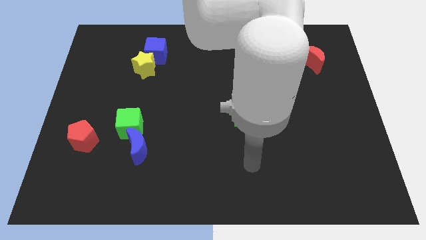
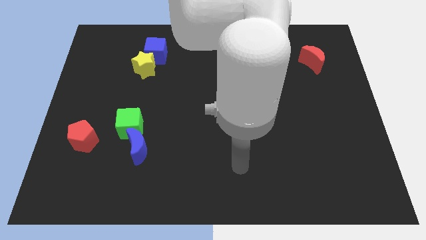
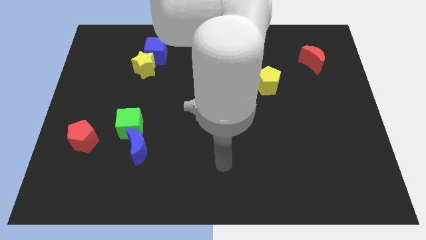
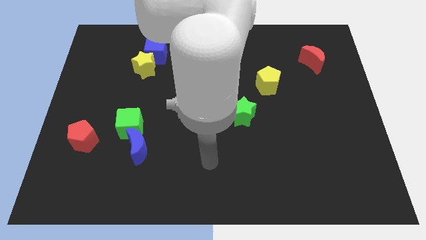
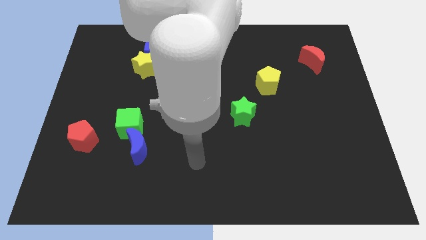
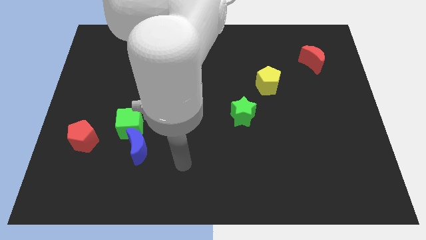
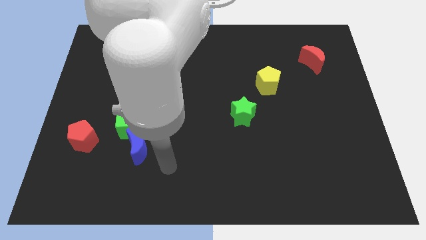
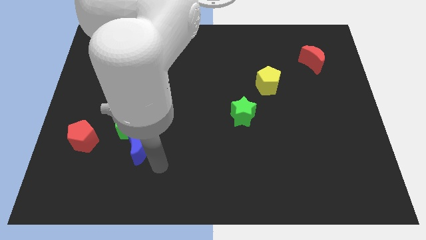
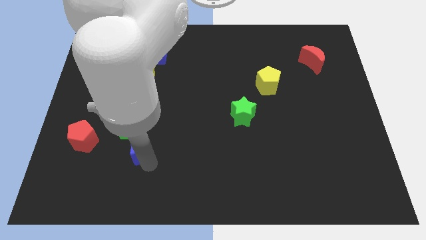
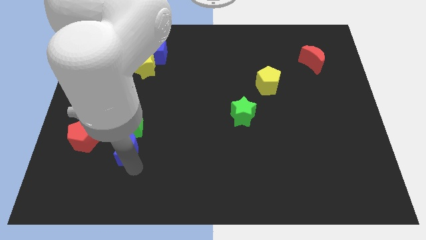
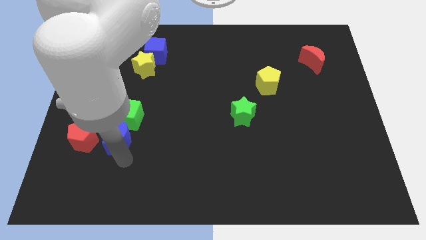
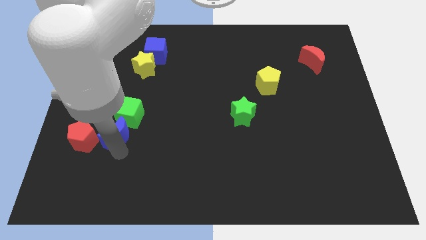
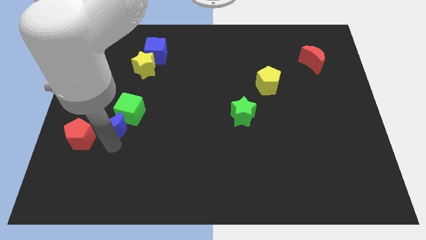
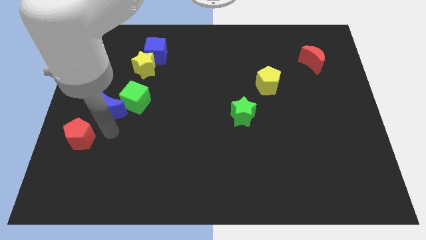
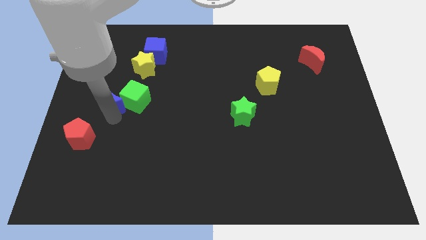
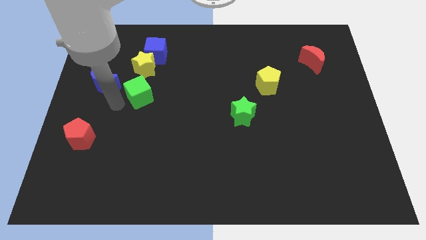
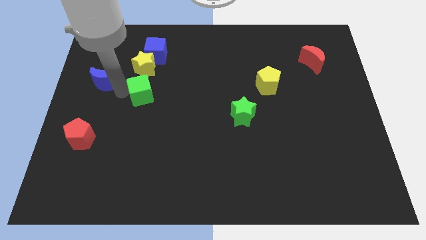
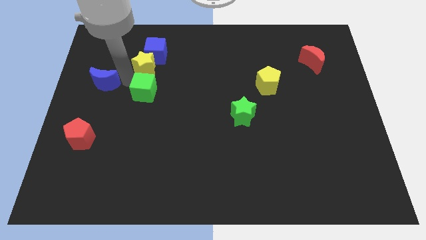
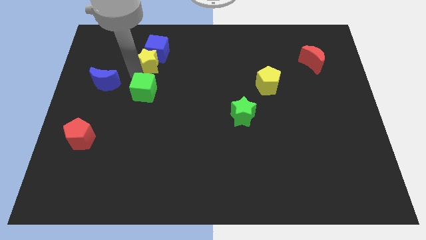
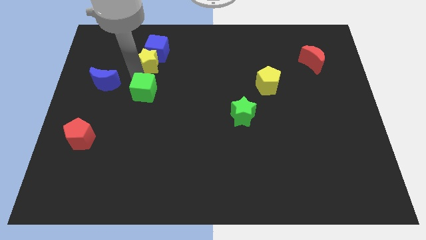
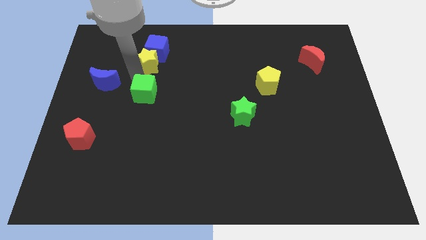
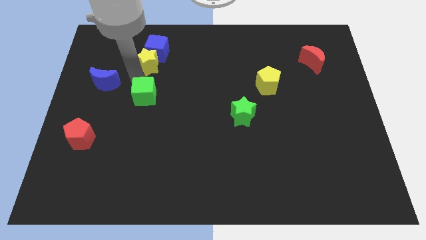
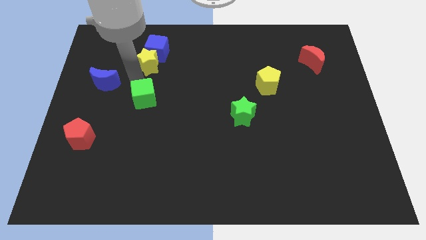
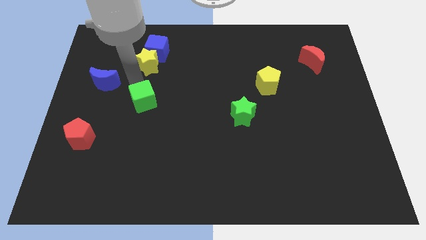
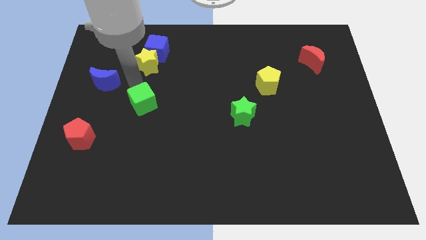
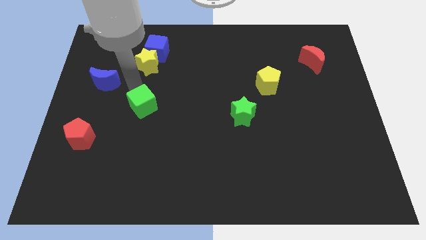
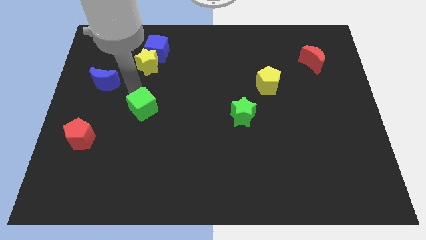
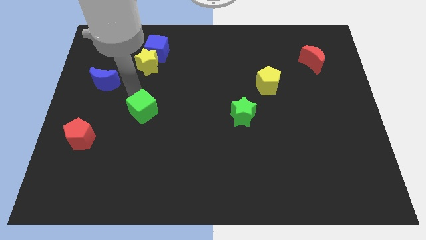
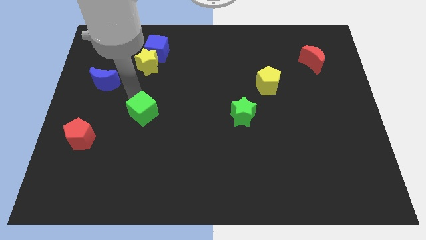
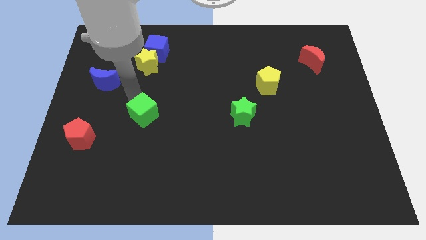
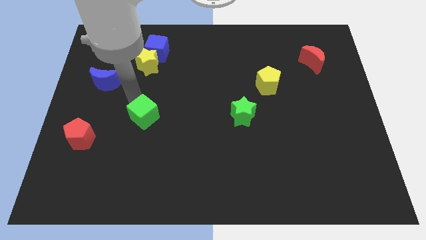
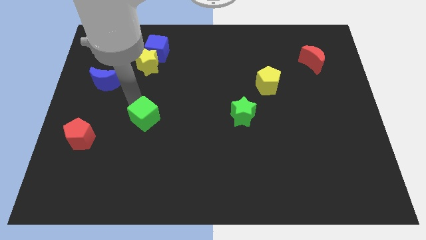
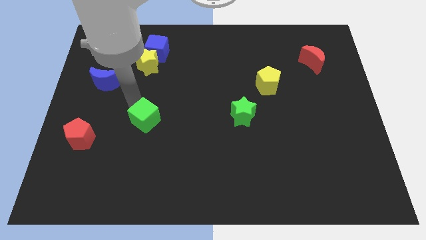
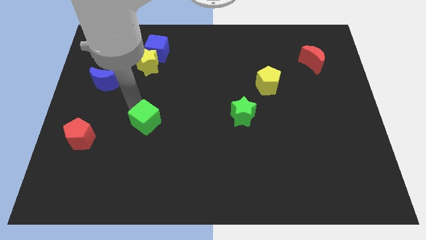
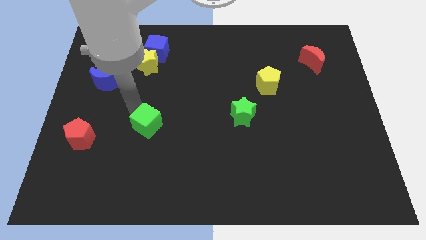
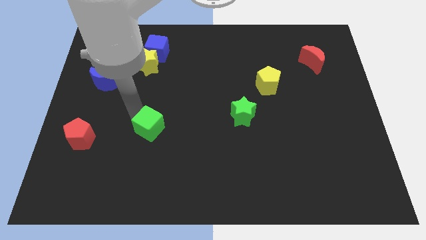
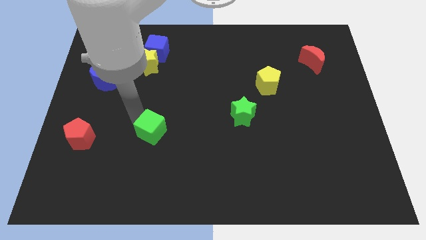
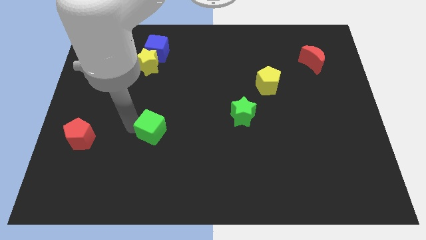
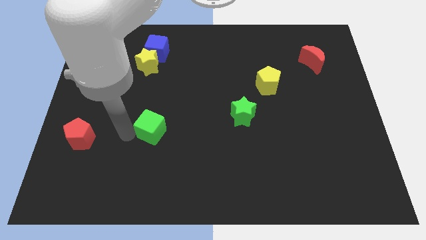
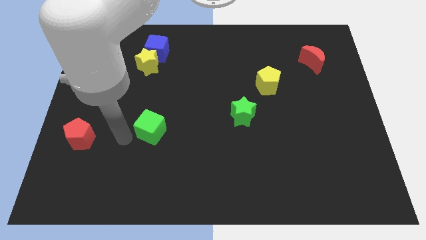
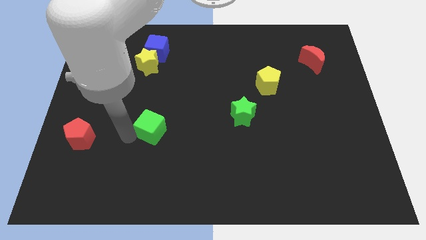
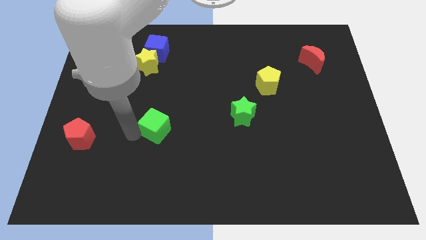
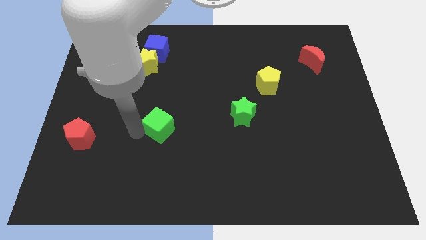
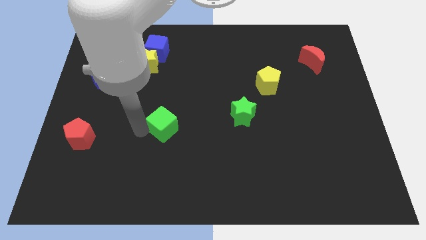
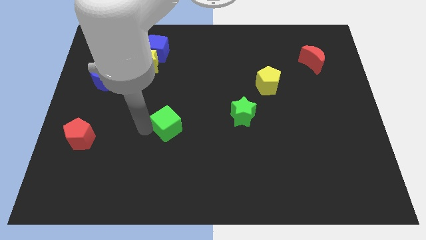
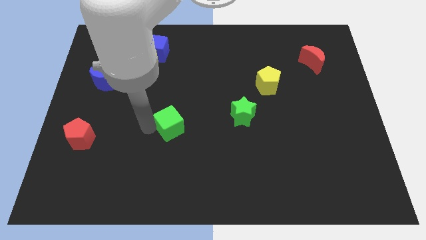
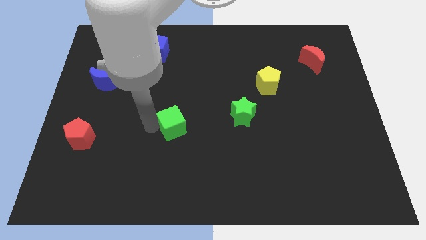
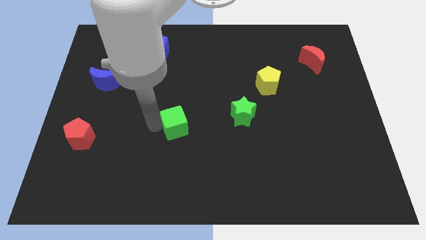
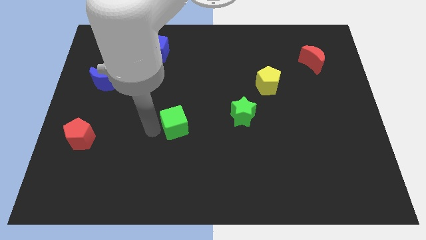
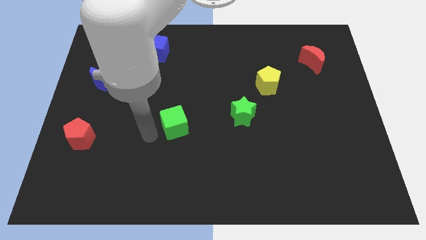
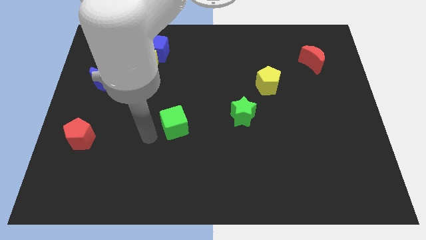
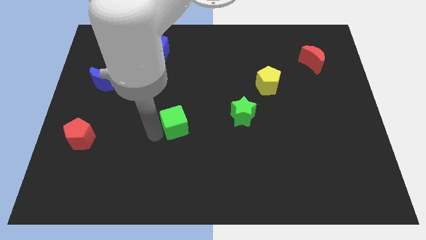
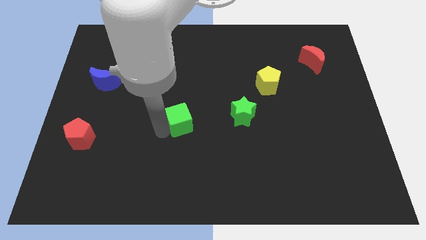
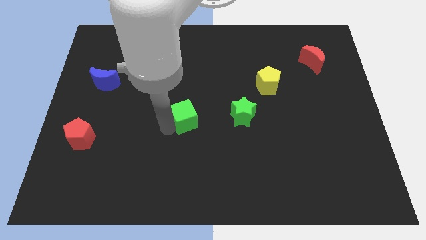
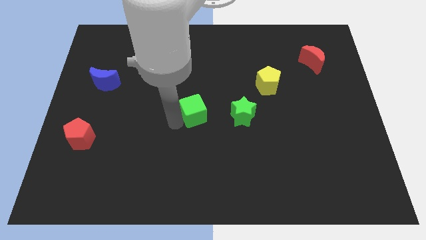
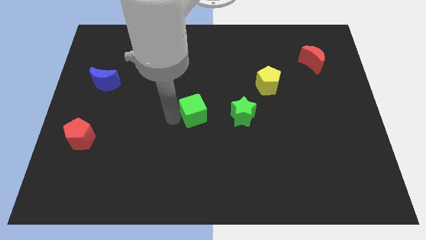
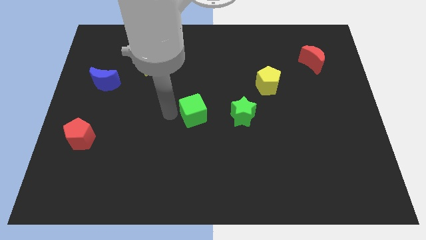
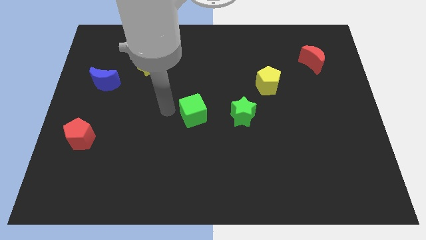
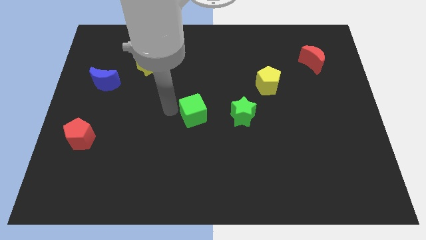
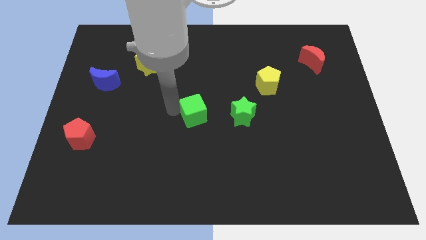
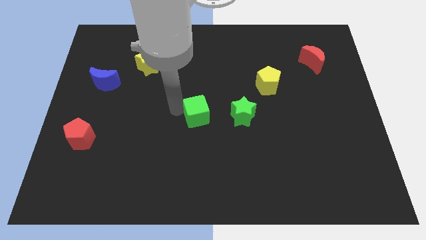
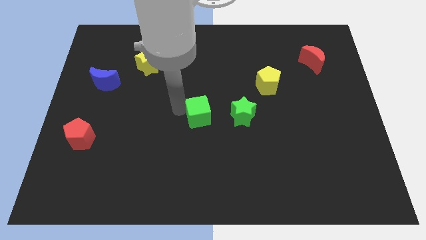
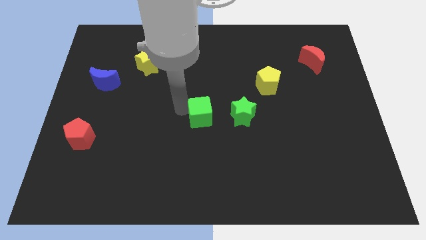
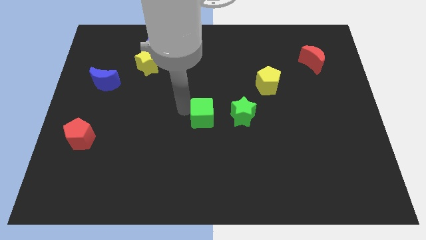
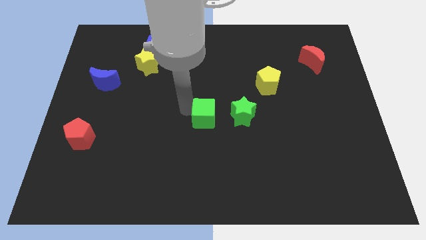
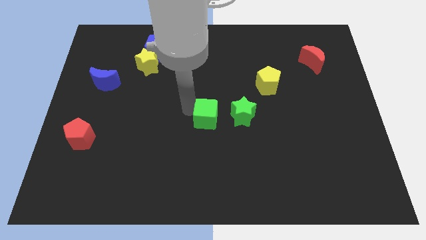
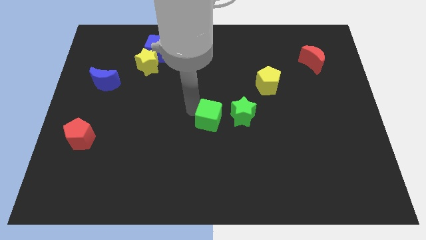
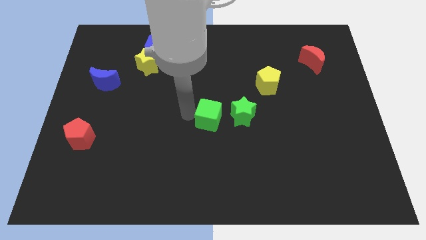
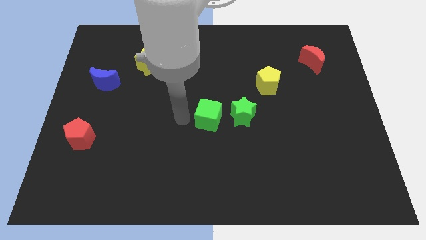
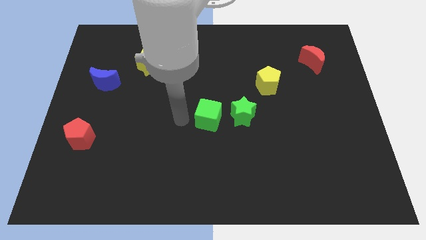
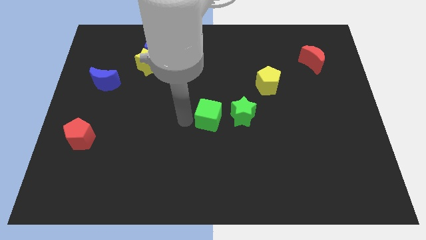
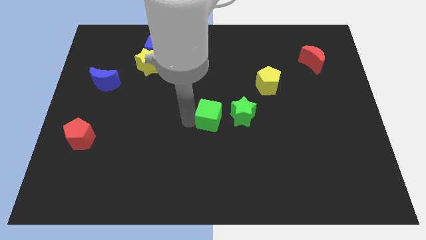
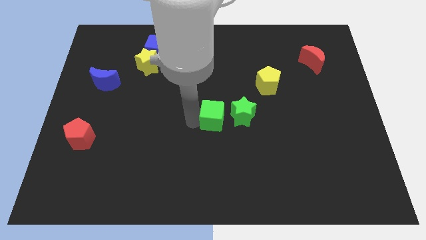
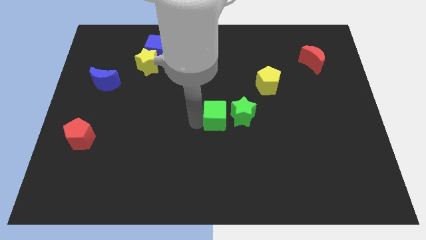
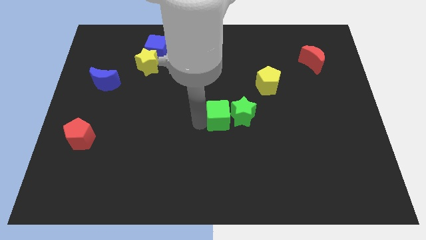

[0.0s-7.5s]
push the green cube towards the green star

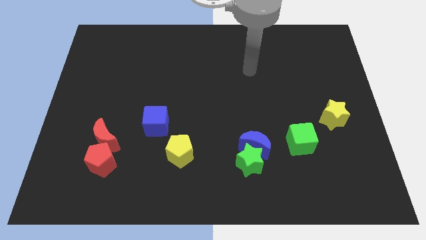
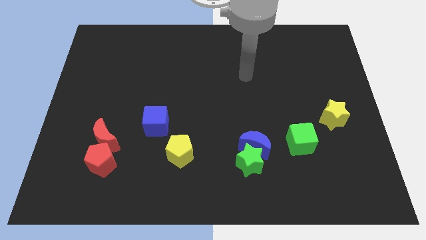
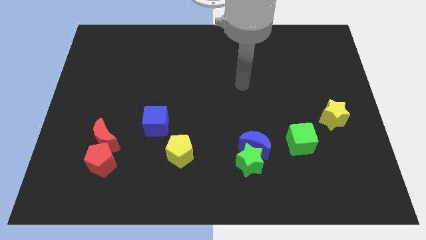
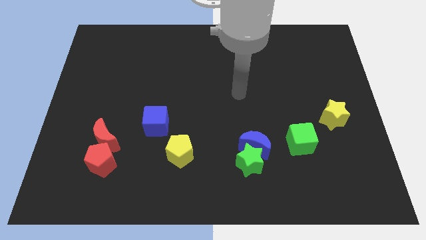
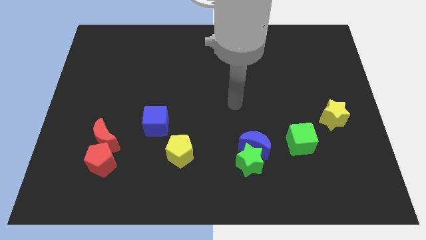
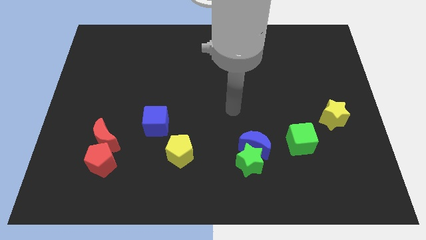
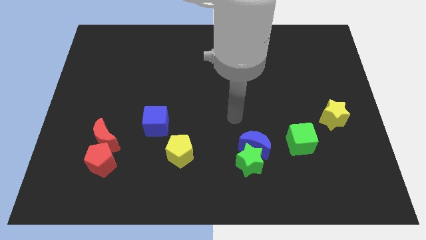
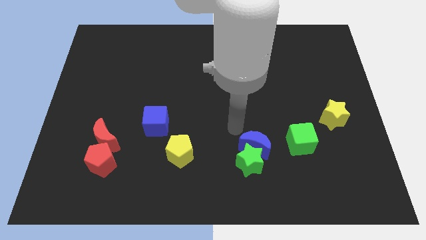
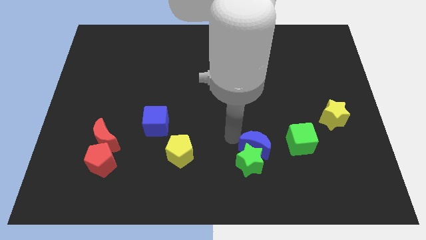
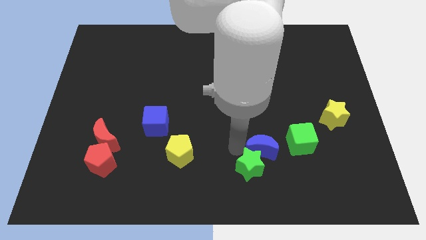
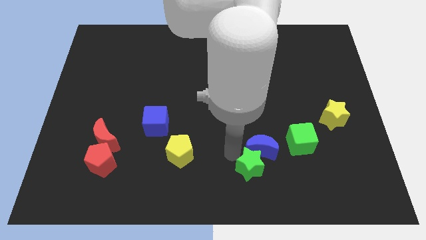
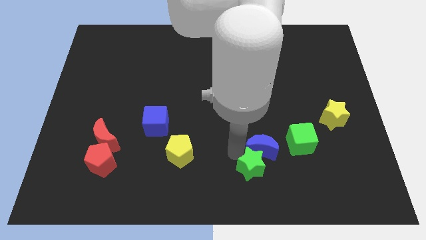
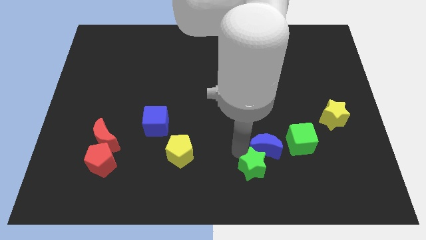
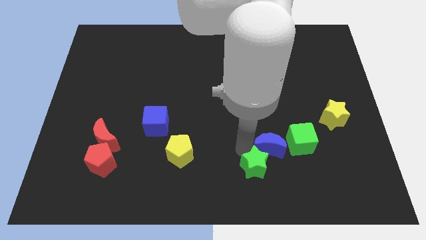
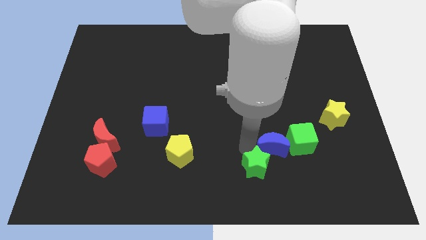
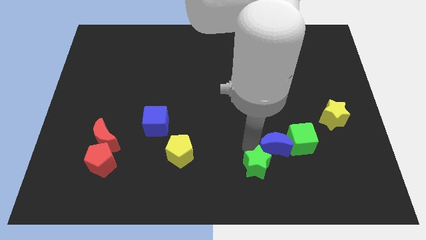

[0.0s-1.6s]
put the blue moon close to the green cube
